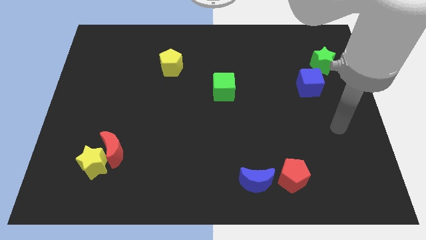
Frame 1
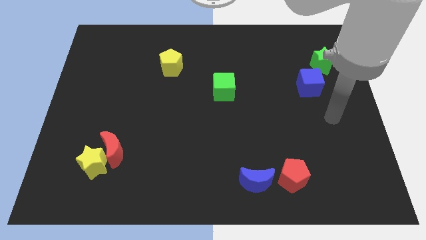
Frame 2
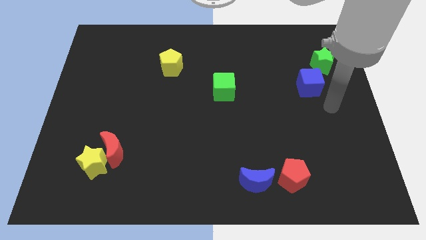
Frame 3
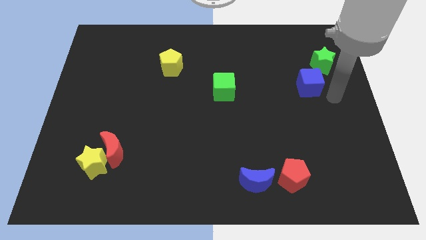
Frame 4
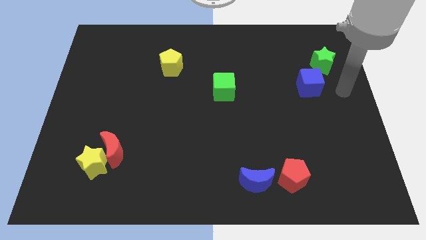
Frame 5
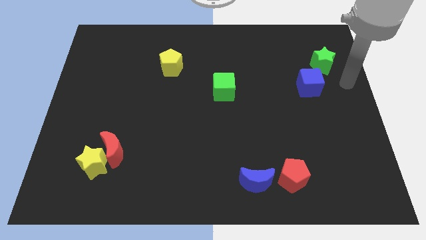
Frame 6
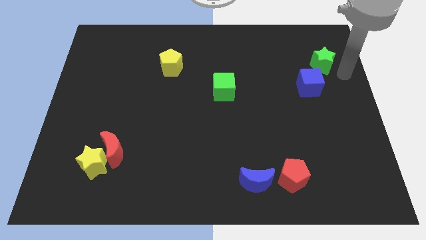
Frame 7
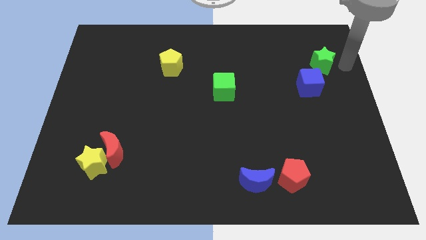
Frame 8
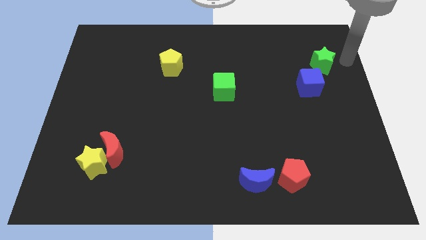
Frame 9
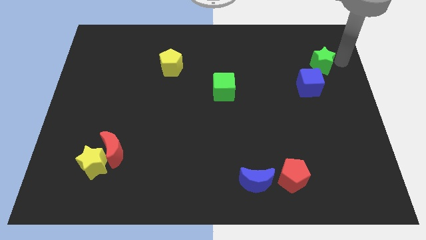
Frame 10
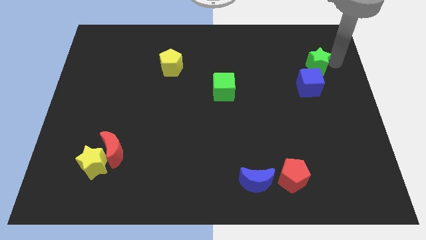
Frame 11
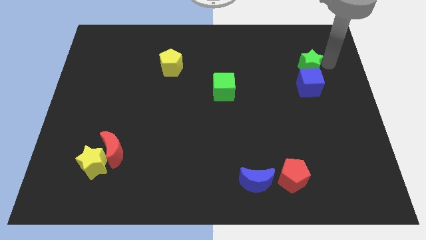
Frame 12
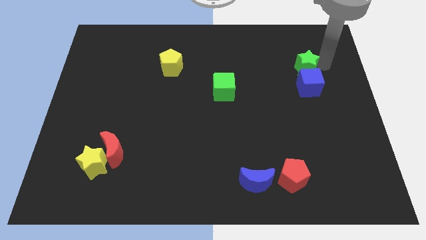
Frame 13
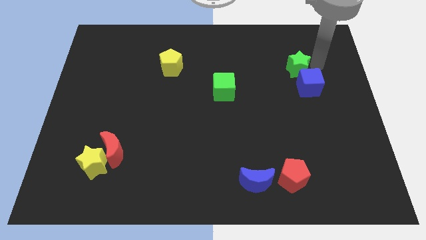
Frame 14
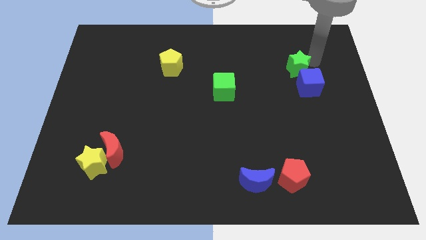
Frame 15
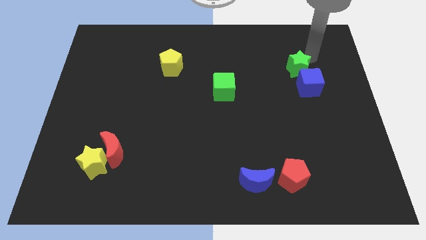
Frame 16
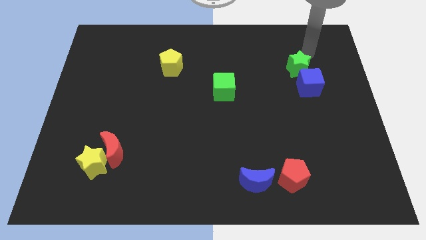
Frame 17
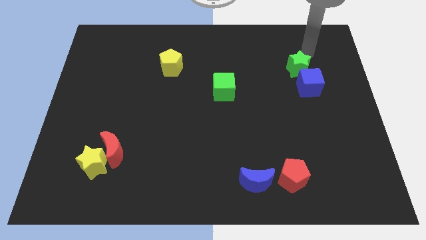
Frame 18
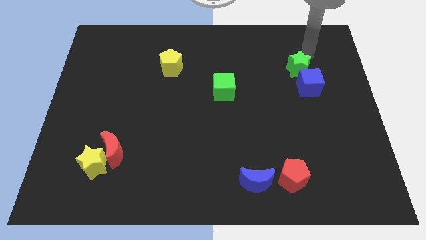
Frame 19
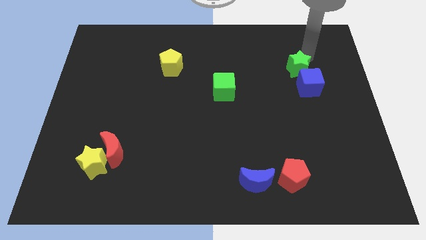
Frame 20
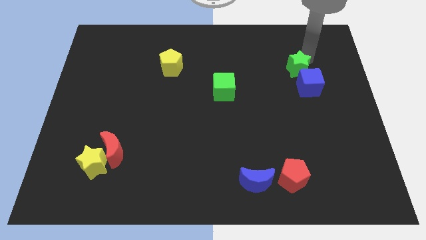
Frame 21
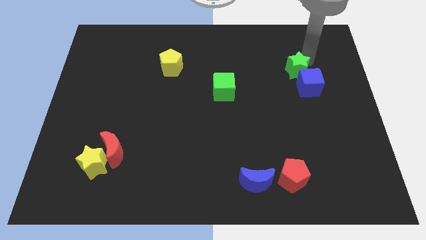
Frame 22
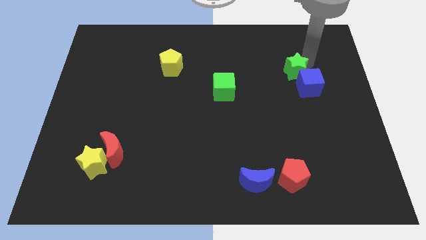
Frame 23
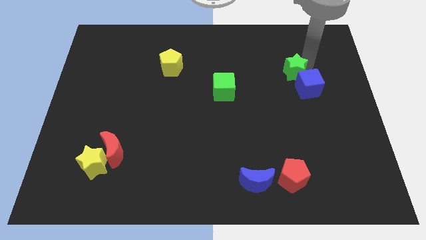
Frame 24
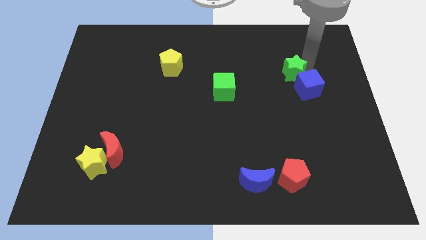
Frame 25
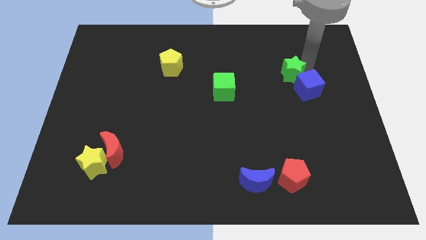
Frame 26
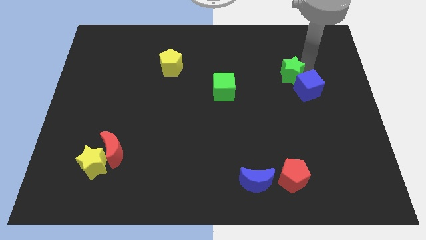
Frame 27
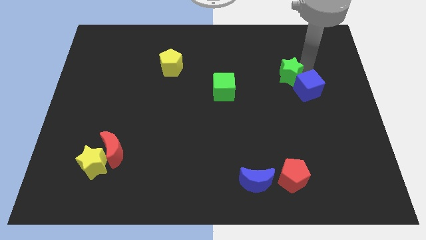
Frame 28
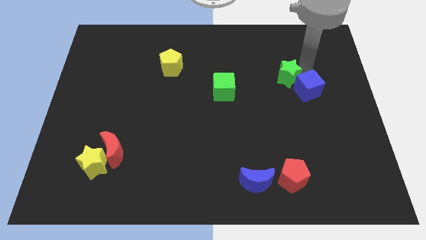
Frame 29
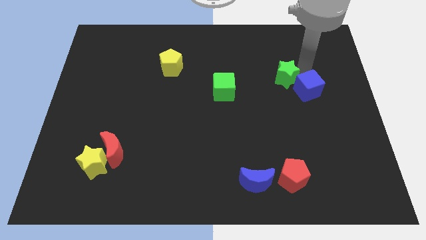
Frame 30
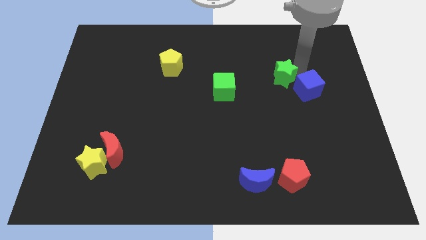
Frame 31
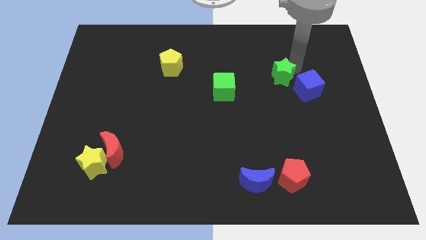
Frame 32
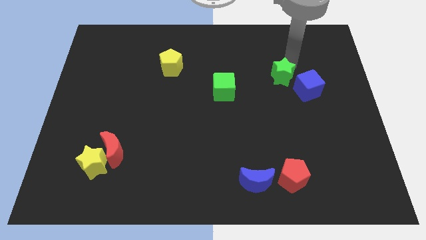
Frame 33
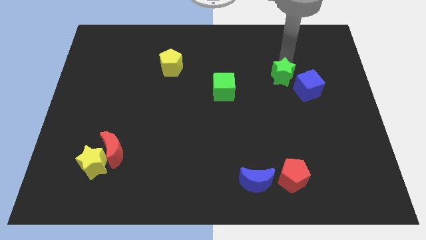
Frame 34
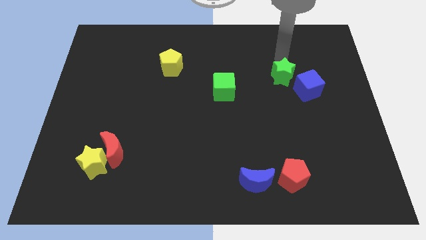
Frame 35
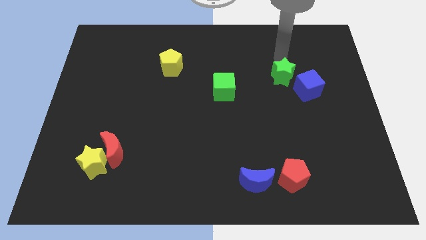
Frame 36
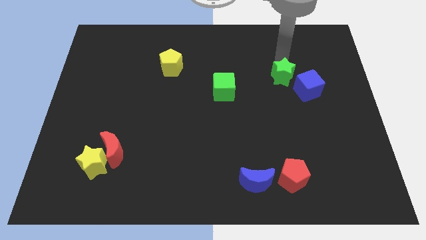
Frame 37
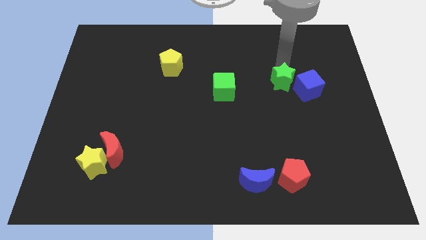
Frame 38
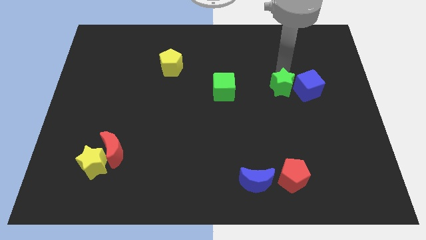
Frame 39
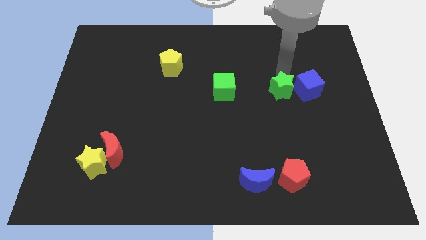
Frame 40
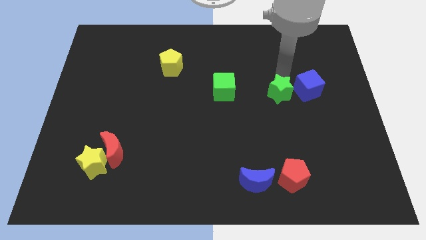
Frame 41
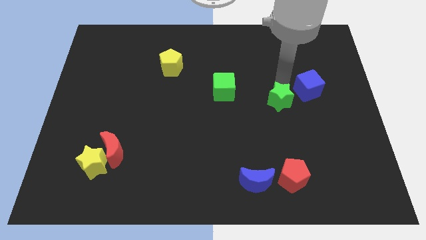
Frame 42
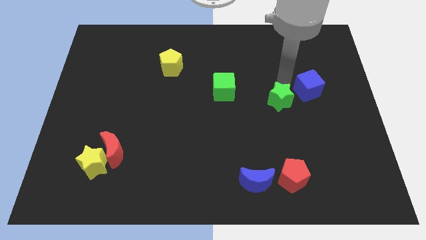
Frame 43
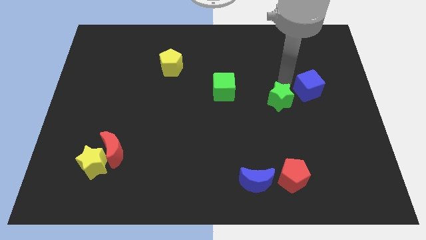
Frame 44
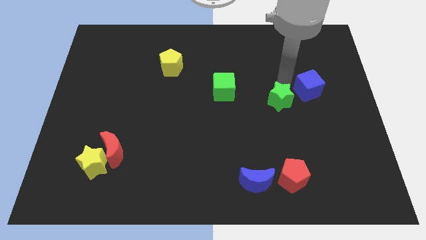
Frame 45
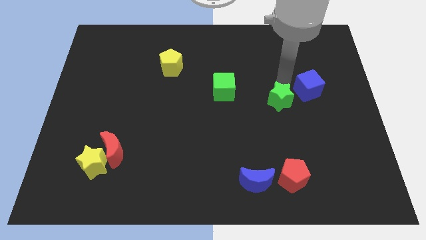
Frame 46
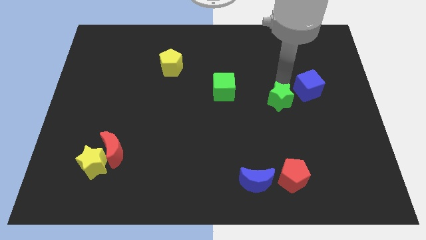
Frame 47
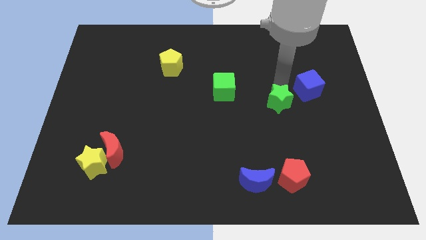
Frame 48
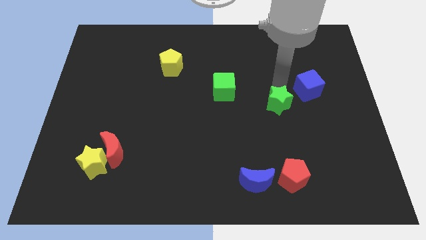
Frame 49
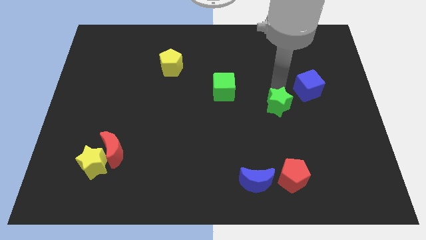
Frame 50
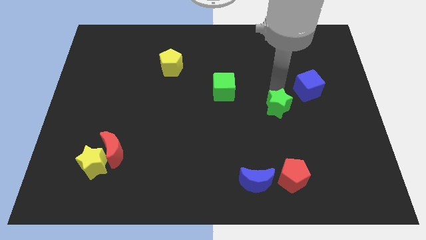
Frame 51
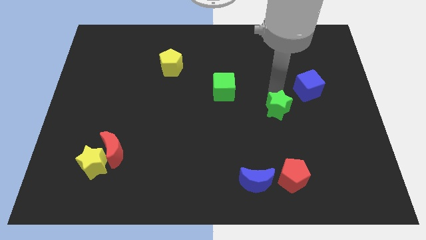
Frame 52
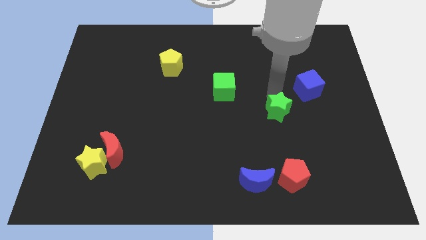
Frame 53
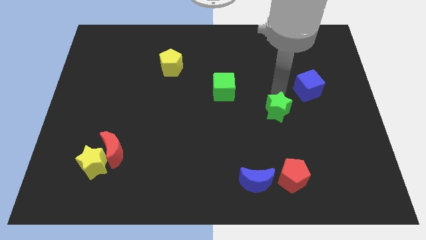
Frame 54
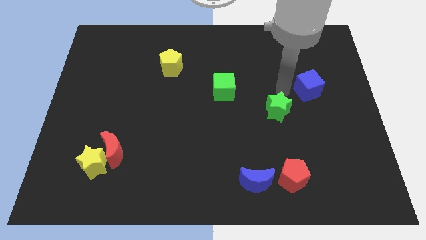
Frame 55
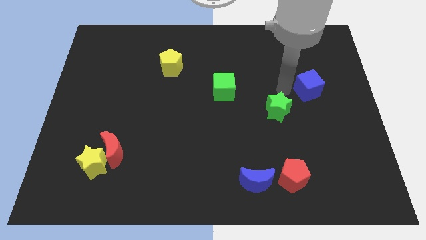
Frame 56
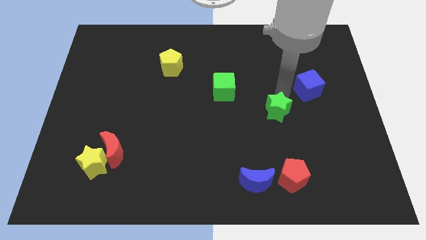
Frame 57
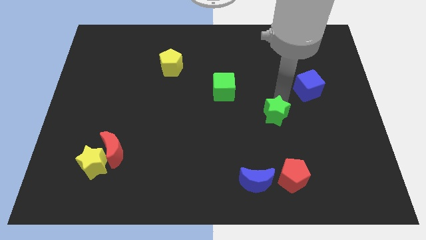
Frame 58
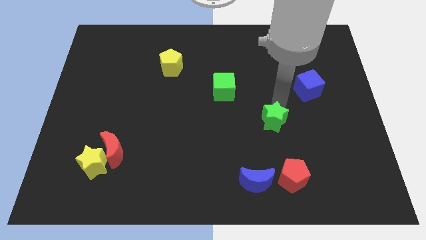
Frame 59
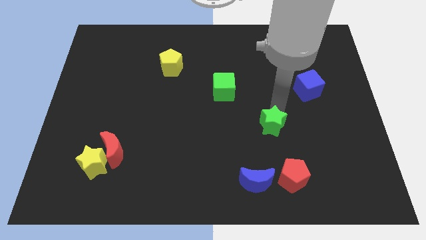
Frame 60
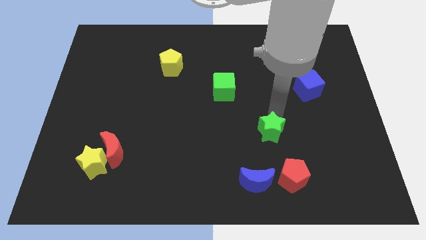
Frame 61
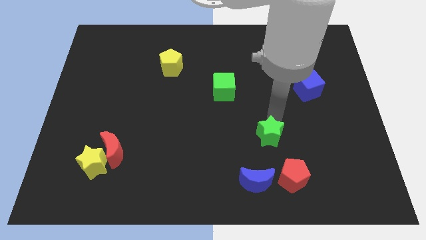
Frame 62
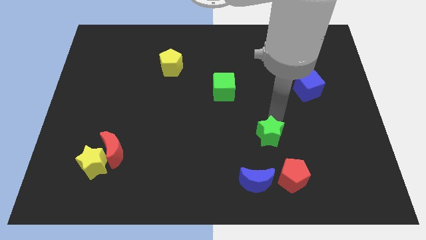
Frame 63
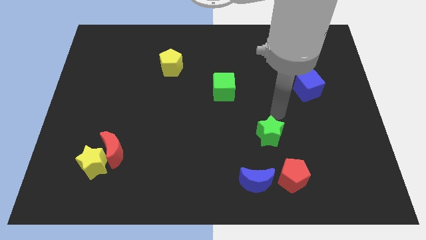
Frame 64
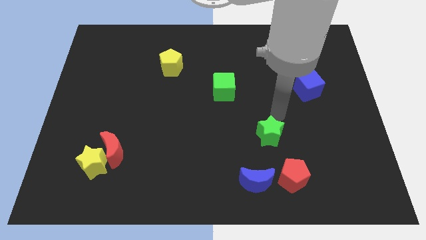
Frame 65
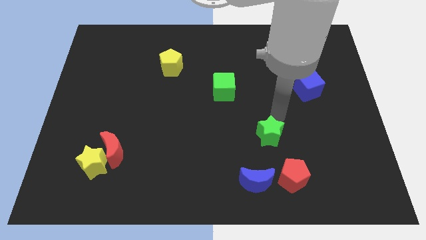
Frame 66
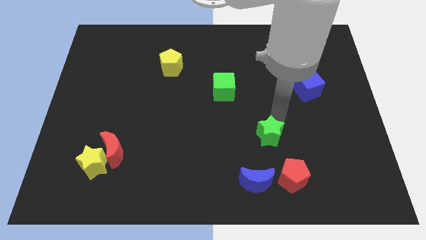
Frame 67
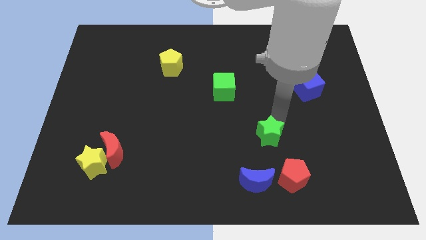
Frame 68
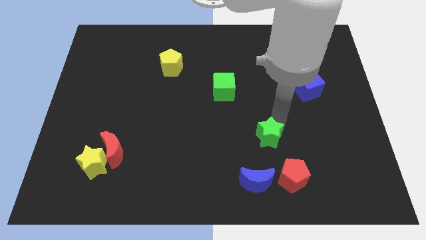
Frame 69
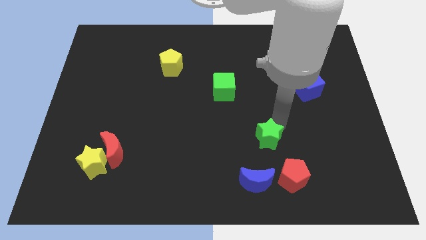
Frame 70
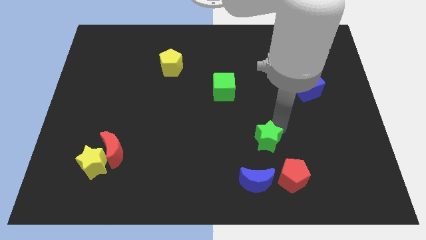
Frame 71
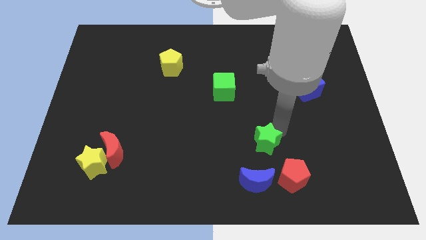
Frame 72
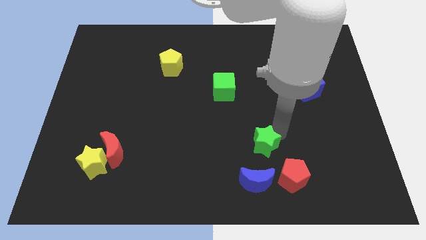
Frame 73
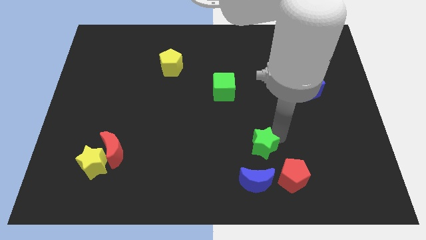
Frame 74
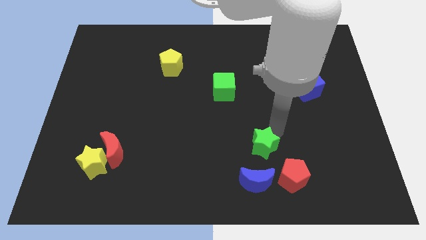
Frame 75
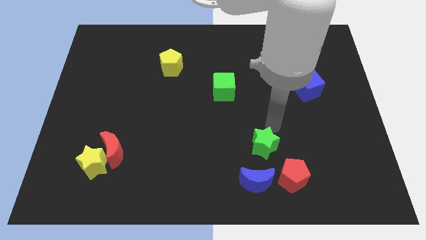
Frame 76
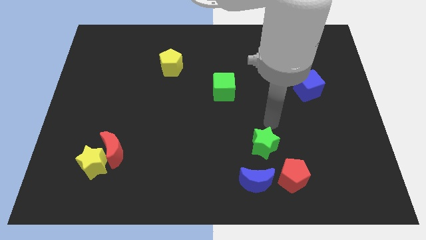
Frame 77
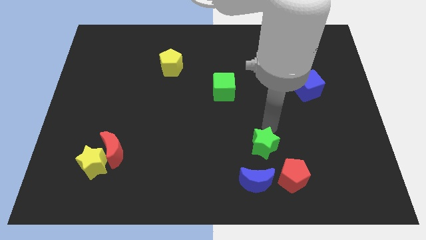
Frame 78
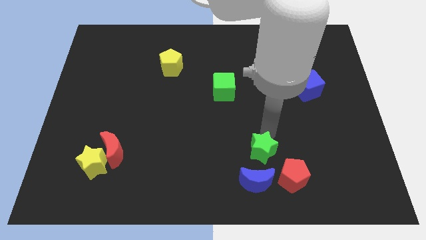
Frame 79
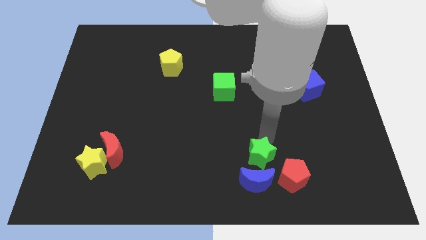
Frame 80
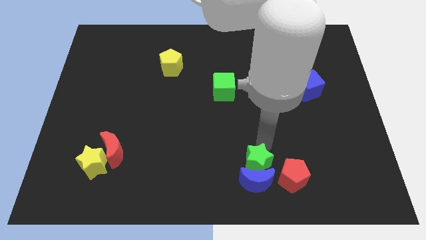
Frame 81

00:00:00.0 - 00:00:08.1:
move the green star next to the blue moon
